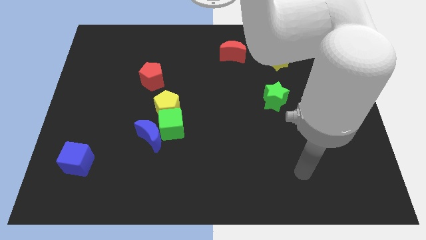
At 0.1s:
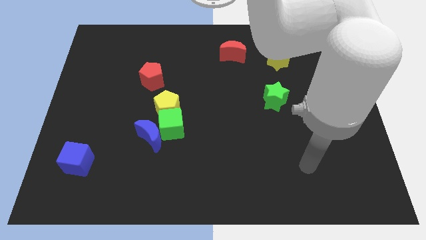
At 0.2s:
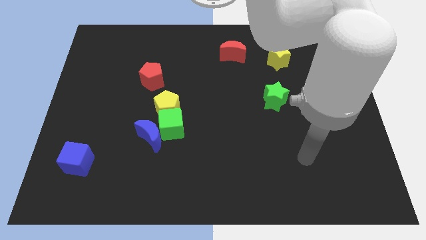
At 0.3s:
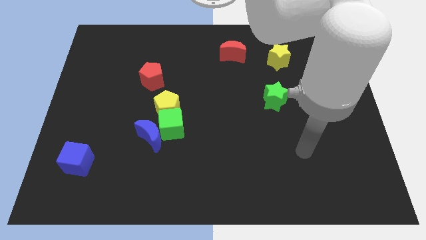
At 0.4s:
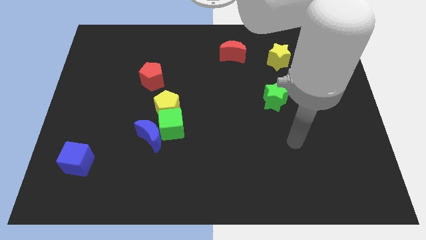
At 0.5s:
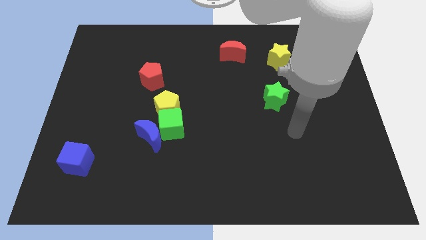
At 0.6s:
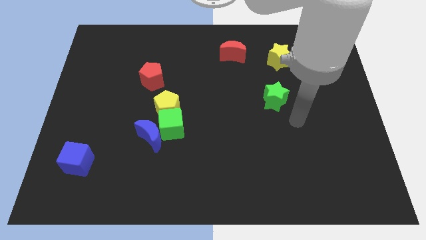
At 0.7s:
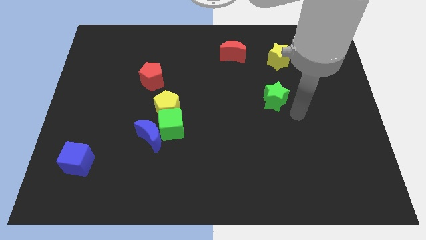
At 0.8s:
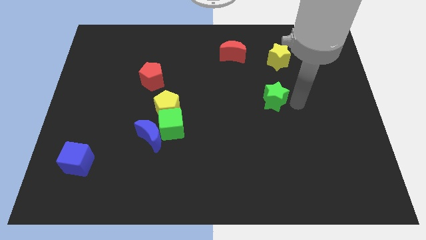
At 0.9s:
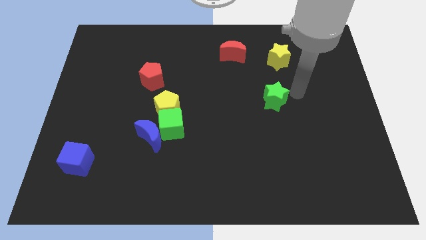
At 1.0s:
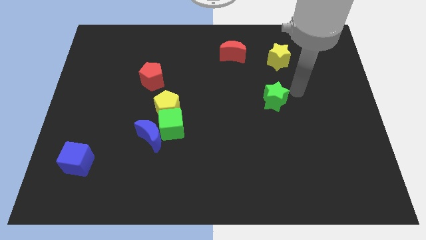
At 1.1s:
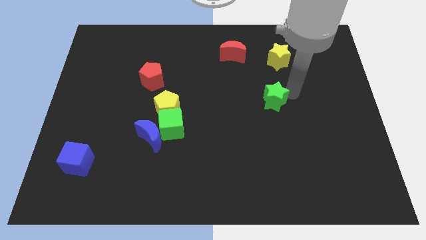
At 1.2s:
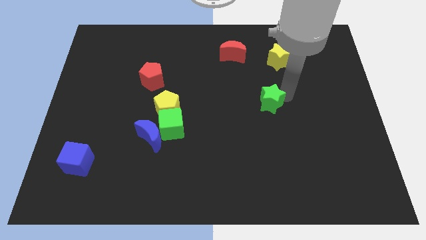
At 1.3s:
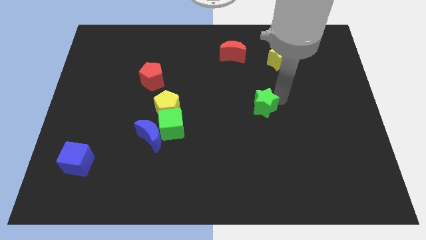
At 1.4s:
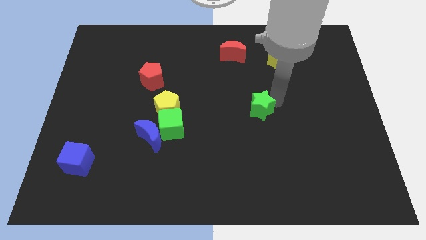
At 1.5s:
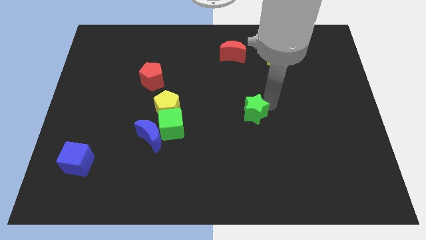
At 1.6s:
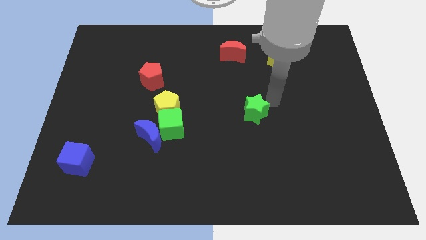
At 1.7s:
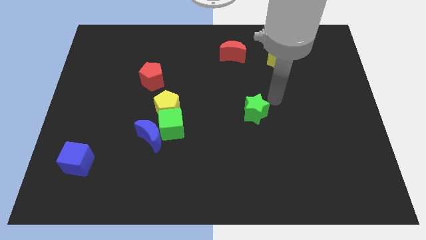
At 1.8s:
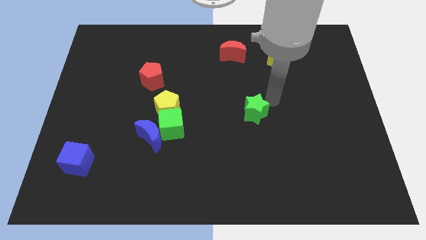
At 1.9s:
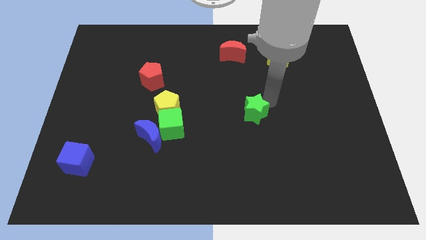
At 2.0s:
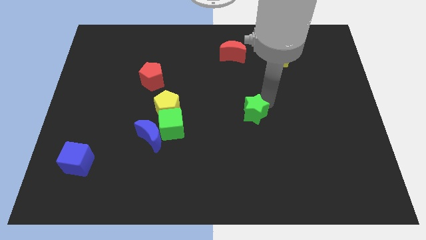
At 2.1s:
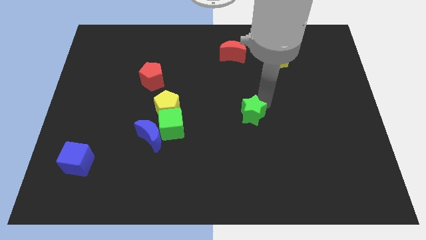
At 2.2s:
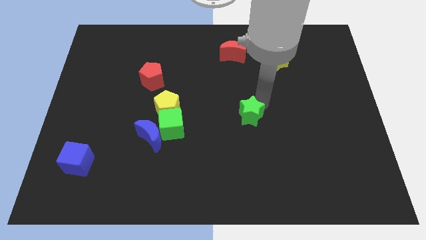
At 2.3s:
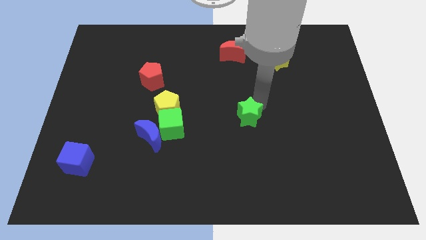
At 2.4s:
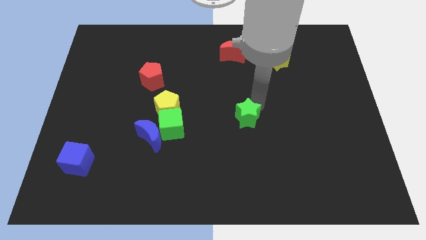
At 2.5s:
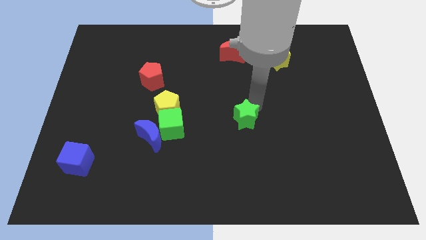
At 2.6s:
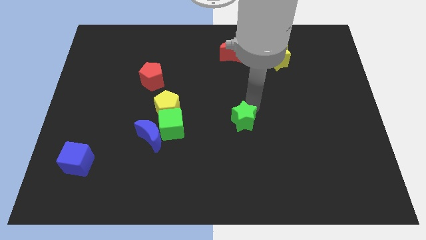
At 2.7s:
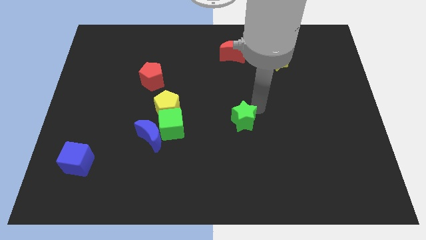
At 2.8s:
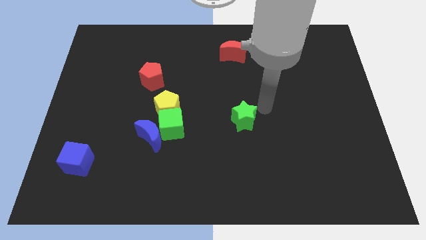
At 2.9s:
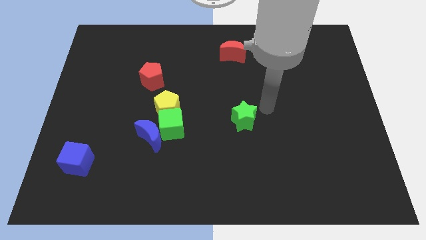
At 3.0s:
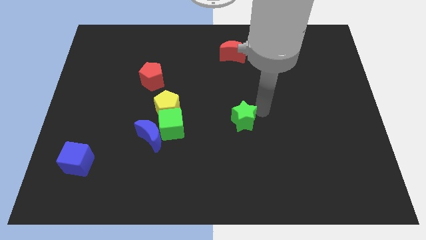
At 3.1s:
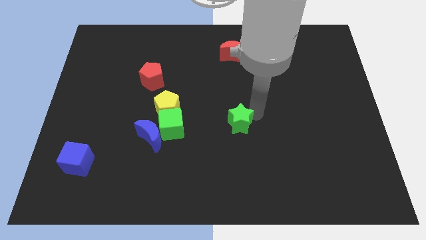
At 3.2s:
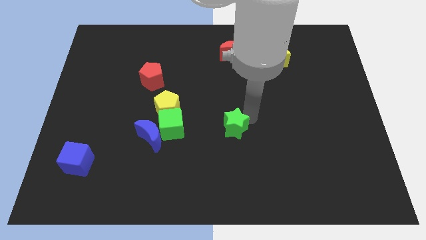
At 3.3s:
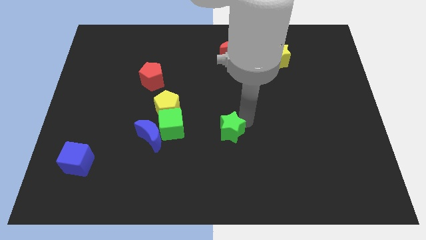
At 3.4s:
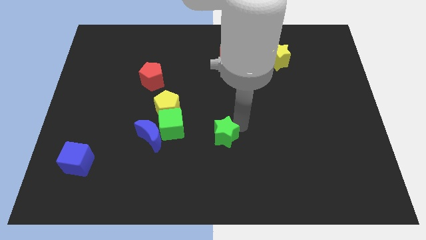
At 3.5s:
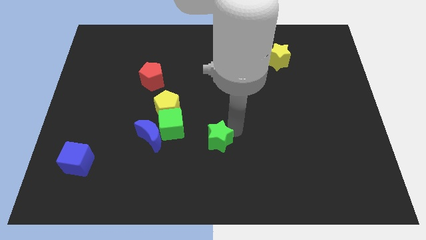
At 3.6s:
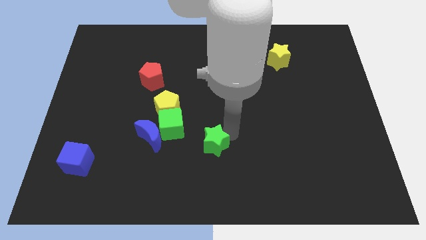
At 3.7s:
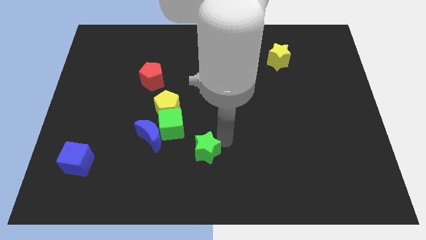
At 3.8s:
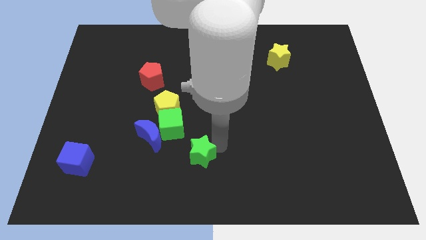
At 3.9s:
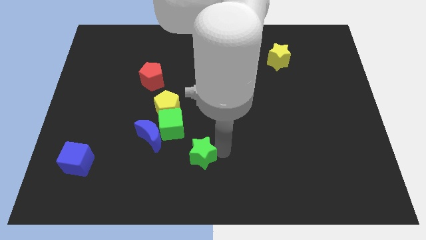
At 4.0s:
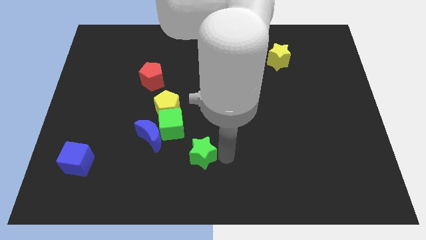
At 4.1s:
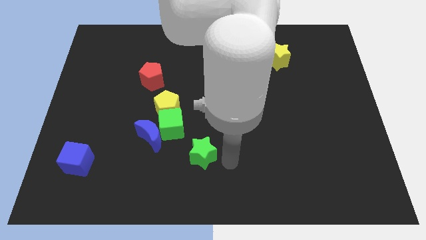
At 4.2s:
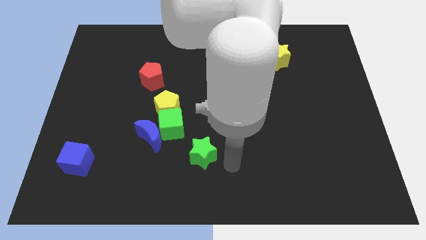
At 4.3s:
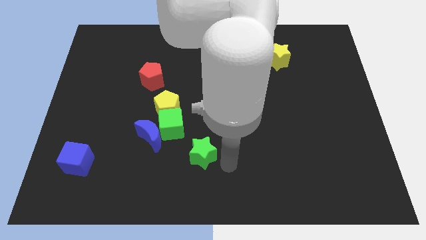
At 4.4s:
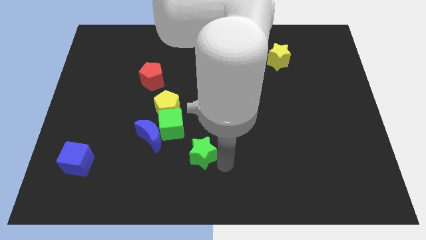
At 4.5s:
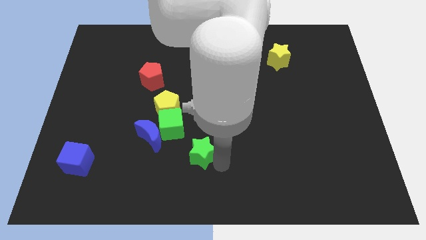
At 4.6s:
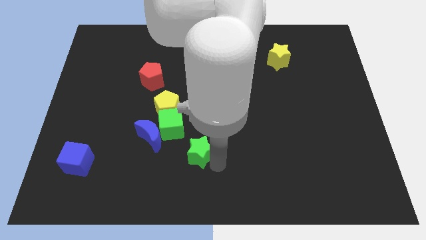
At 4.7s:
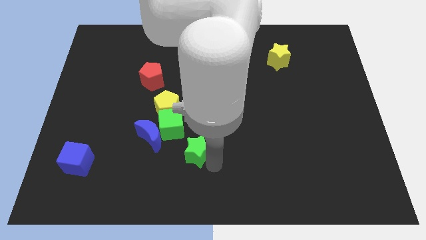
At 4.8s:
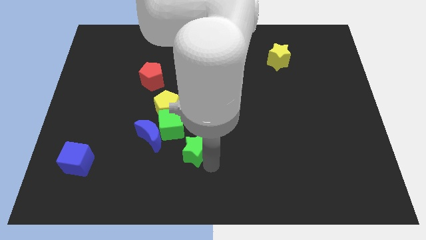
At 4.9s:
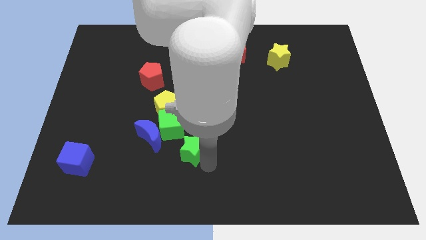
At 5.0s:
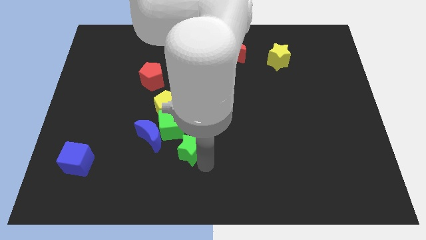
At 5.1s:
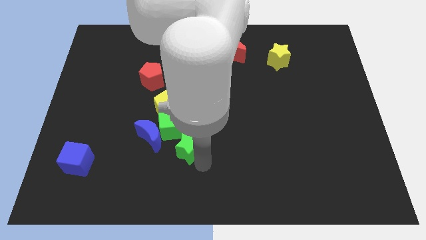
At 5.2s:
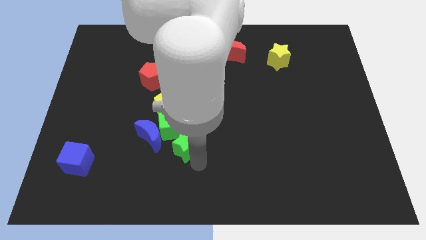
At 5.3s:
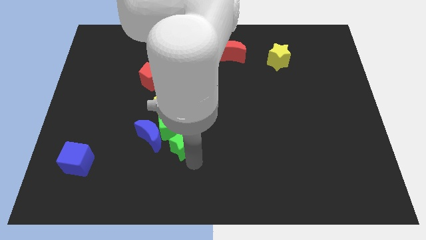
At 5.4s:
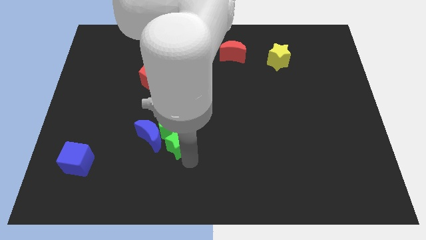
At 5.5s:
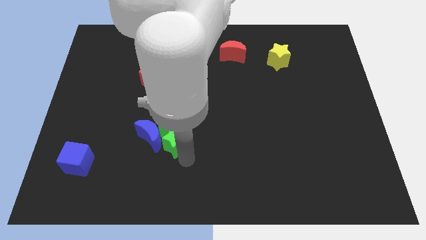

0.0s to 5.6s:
push the green star close to the blue moon

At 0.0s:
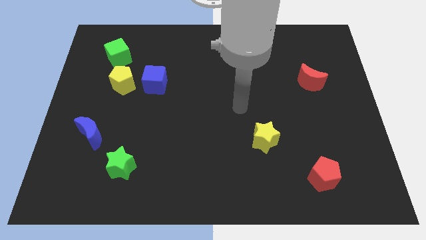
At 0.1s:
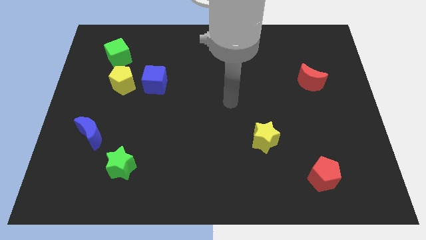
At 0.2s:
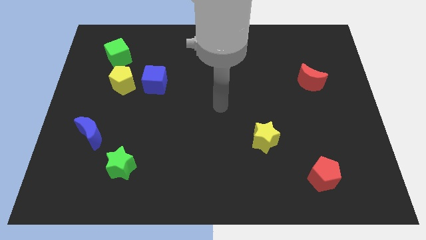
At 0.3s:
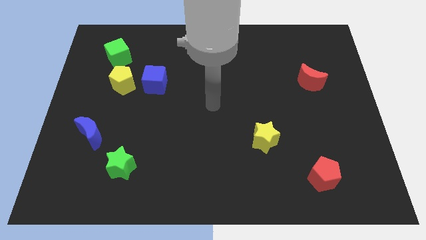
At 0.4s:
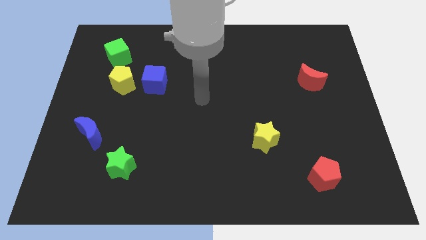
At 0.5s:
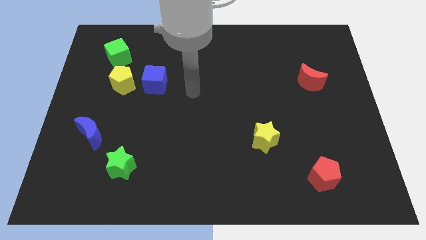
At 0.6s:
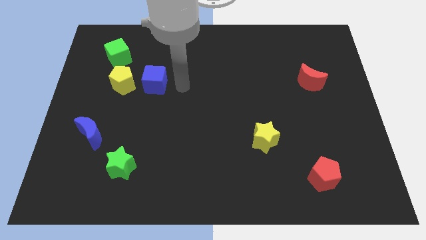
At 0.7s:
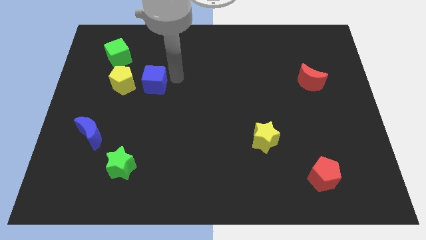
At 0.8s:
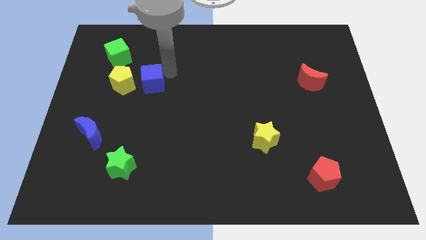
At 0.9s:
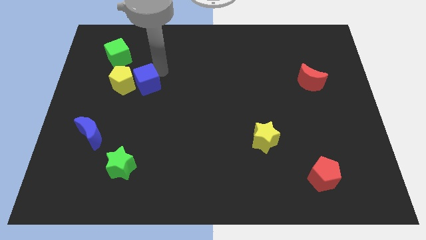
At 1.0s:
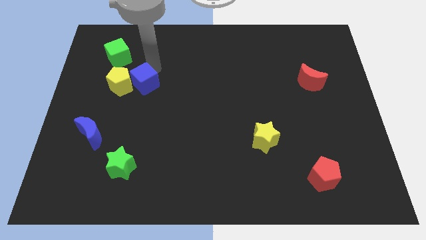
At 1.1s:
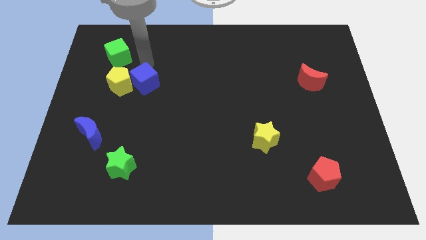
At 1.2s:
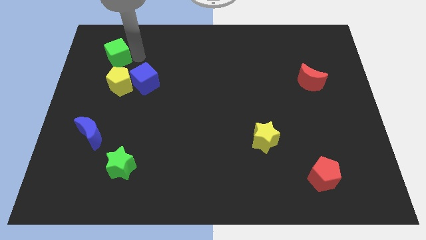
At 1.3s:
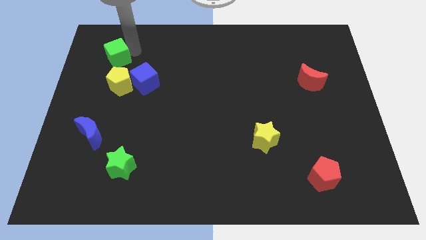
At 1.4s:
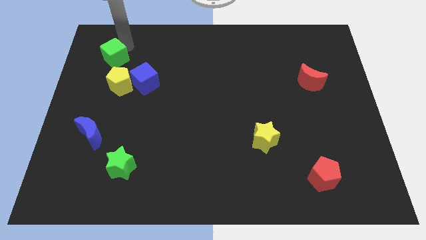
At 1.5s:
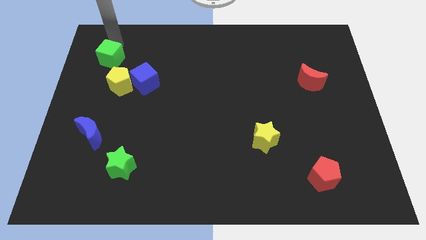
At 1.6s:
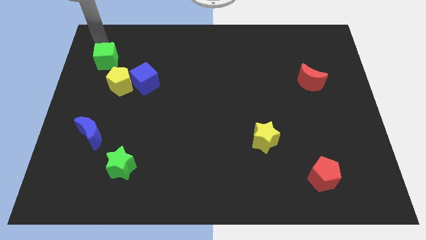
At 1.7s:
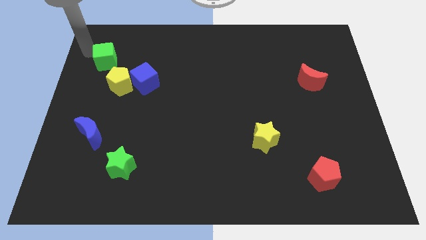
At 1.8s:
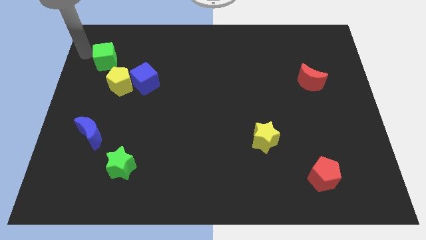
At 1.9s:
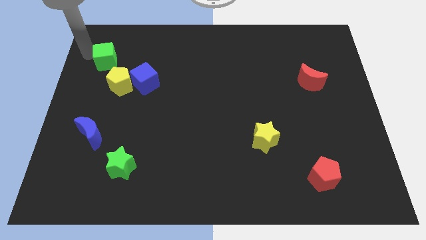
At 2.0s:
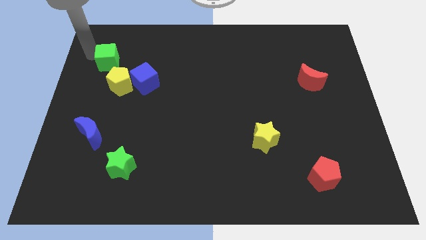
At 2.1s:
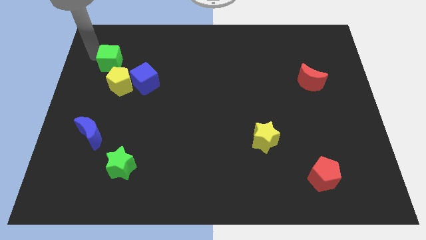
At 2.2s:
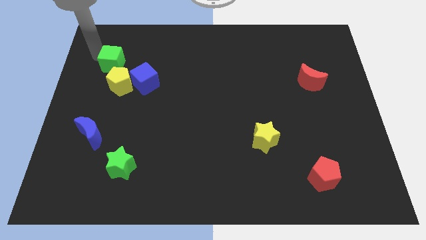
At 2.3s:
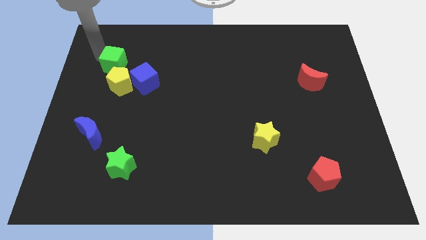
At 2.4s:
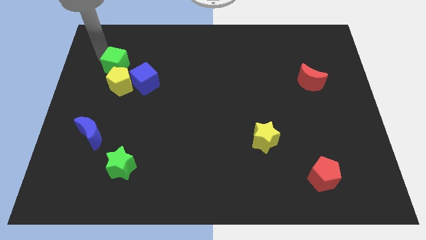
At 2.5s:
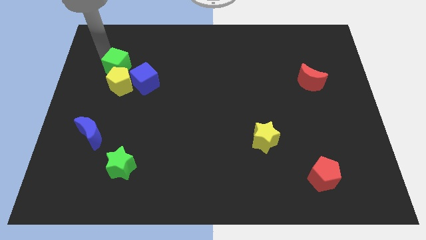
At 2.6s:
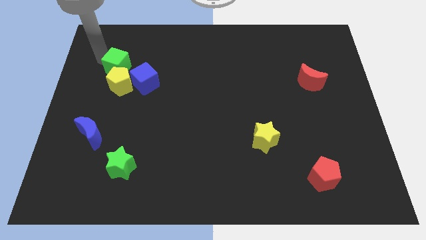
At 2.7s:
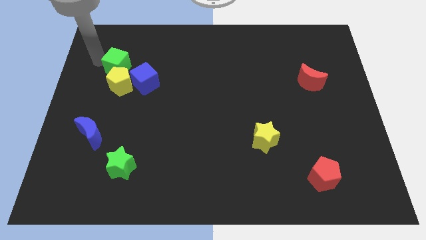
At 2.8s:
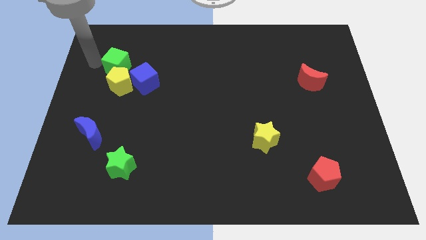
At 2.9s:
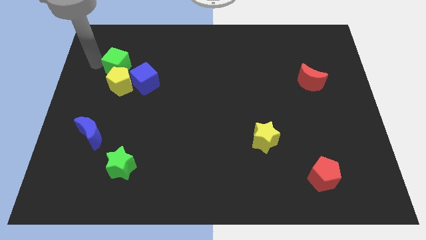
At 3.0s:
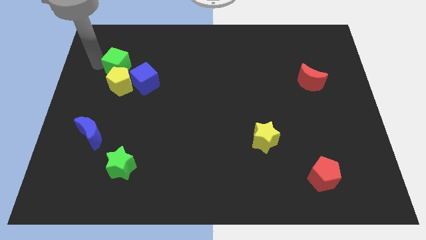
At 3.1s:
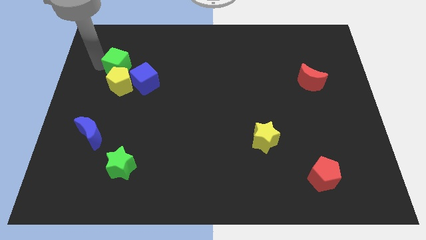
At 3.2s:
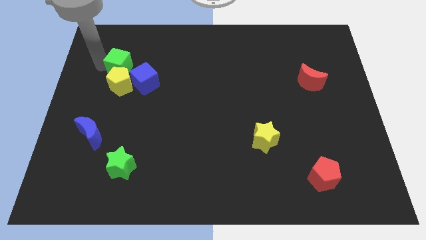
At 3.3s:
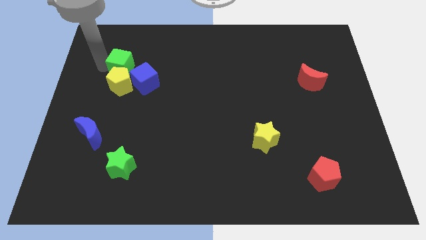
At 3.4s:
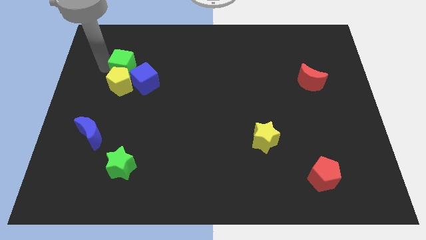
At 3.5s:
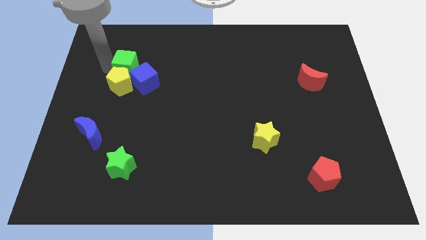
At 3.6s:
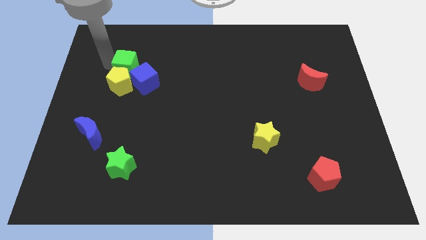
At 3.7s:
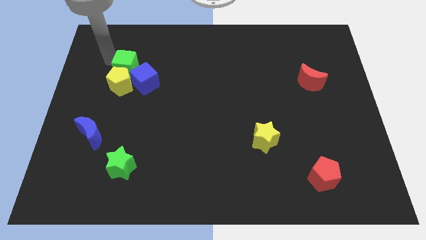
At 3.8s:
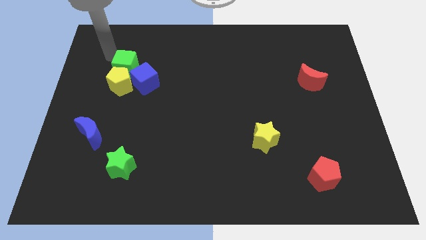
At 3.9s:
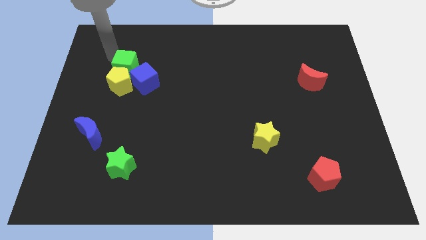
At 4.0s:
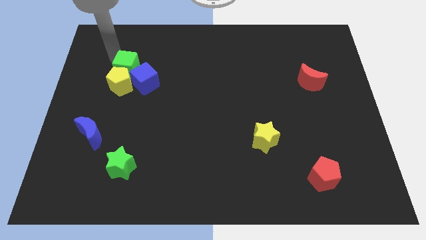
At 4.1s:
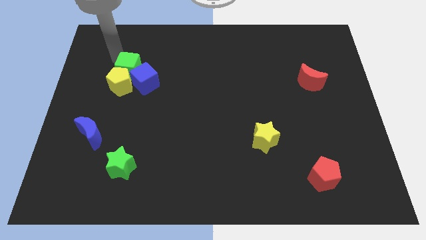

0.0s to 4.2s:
push the green cube close to the blue cube
